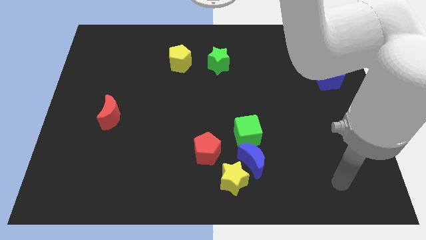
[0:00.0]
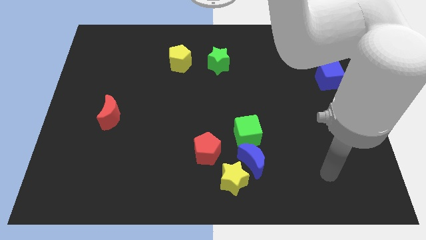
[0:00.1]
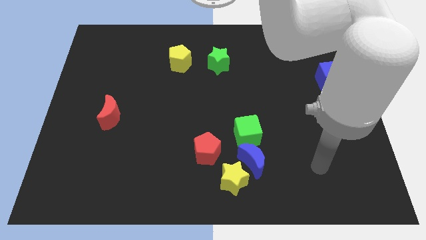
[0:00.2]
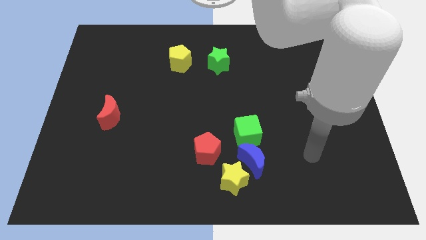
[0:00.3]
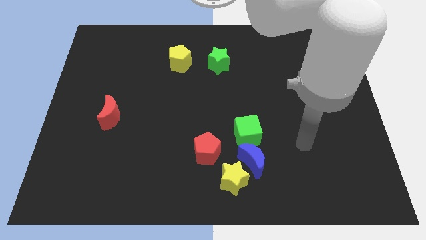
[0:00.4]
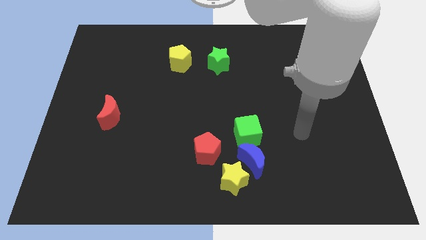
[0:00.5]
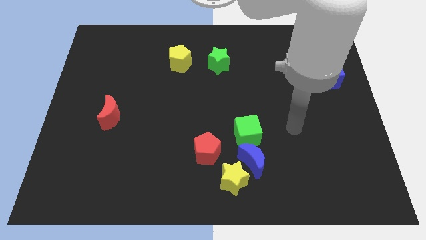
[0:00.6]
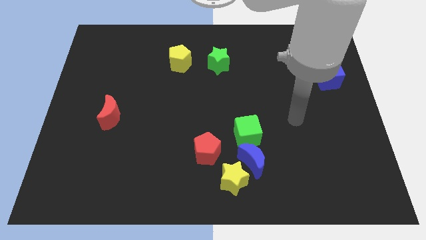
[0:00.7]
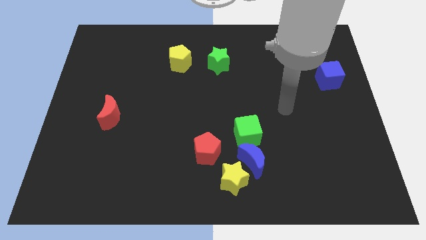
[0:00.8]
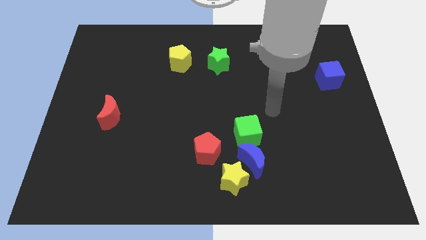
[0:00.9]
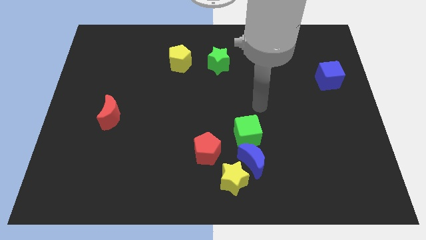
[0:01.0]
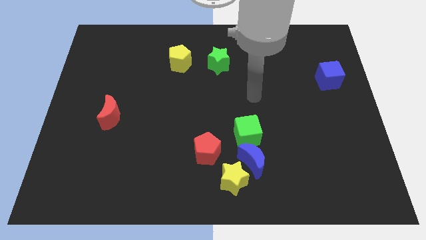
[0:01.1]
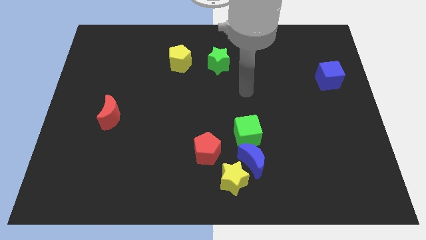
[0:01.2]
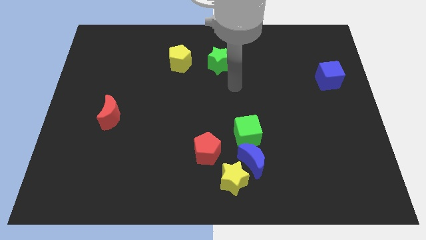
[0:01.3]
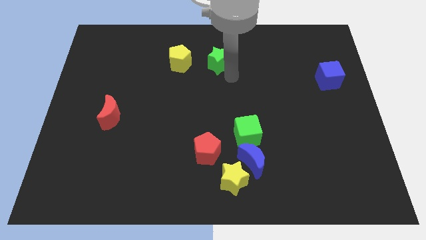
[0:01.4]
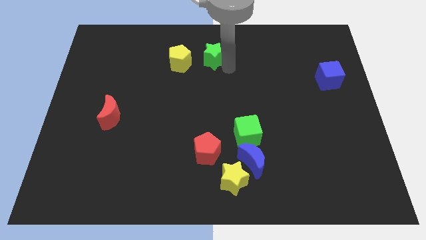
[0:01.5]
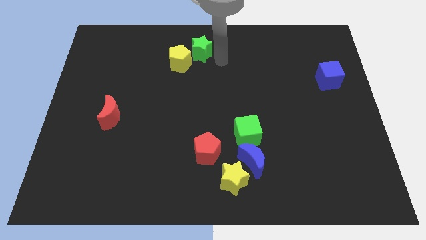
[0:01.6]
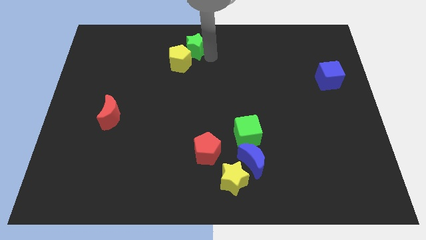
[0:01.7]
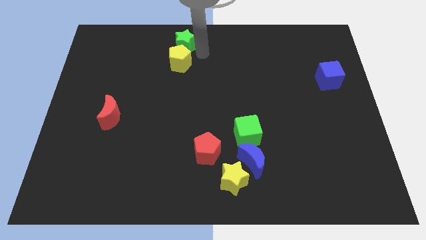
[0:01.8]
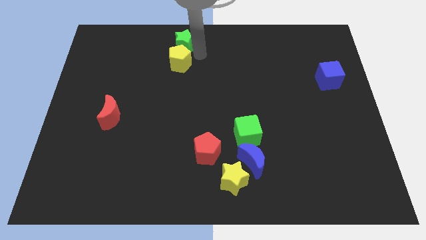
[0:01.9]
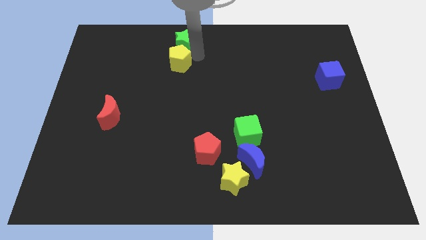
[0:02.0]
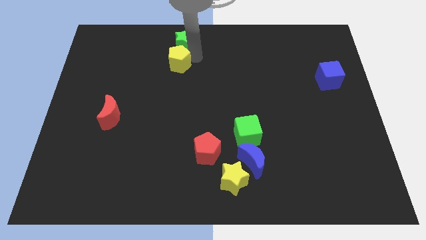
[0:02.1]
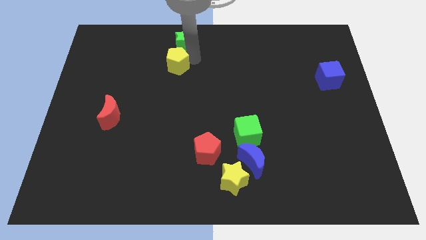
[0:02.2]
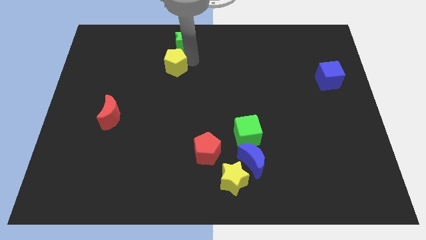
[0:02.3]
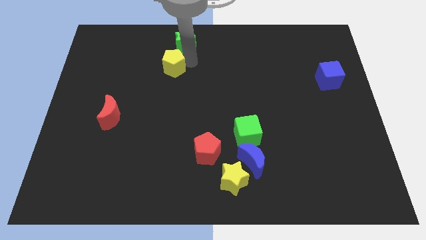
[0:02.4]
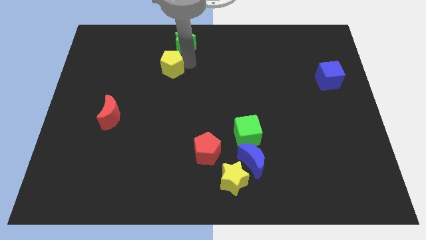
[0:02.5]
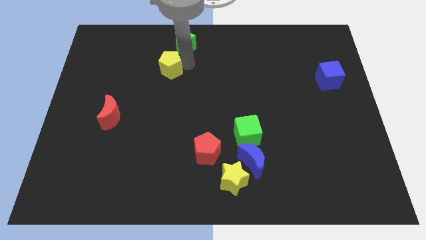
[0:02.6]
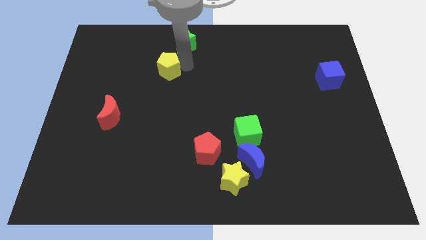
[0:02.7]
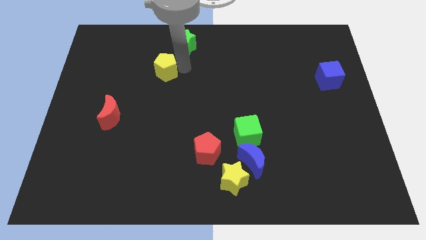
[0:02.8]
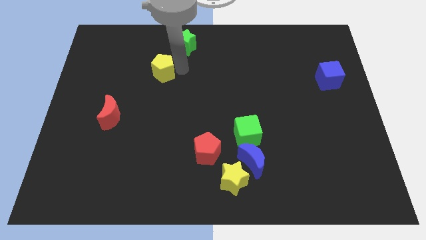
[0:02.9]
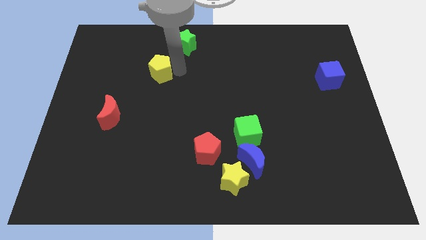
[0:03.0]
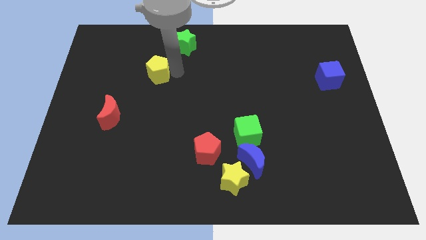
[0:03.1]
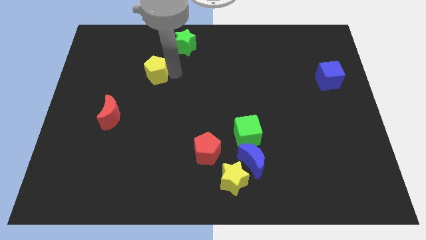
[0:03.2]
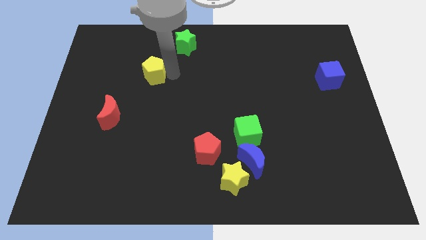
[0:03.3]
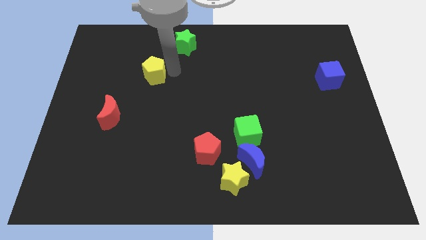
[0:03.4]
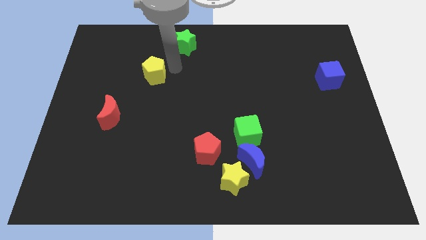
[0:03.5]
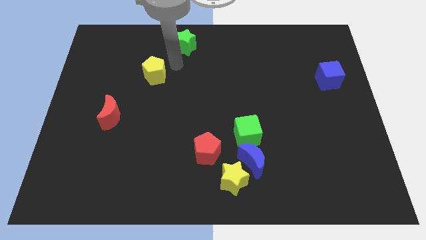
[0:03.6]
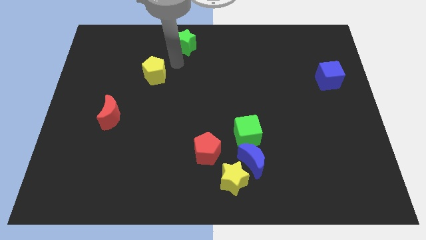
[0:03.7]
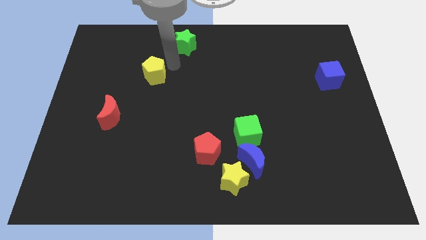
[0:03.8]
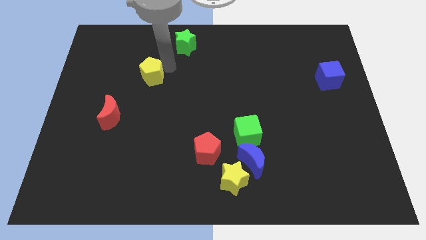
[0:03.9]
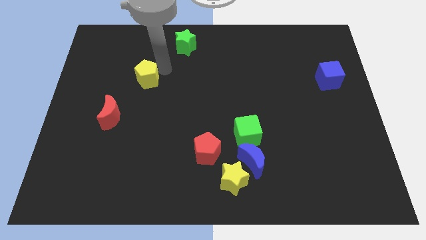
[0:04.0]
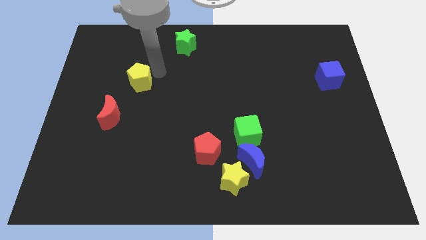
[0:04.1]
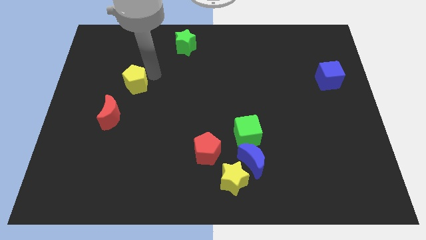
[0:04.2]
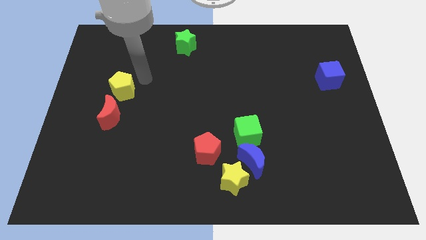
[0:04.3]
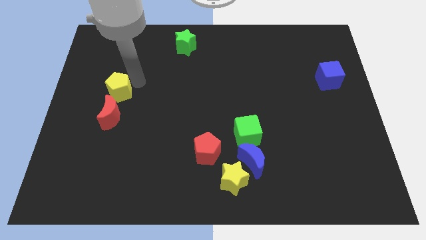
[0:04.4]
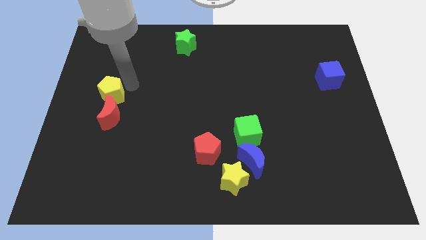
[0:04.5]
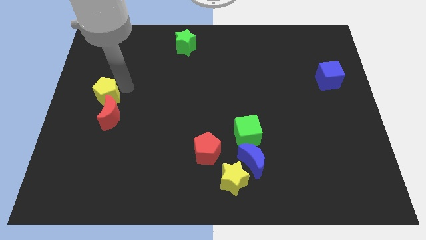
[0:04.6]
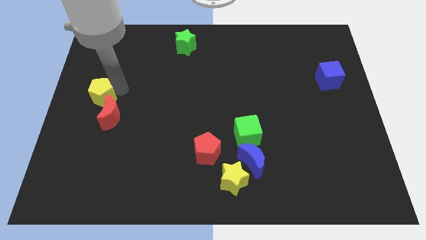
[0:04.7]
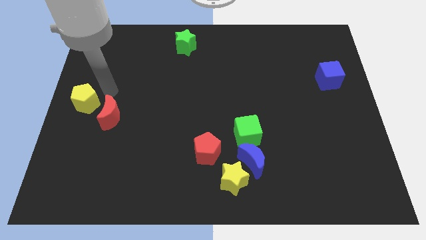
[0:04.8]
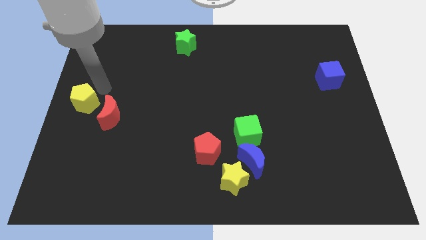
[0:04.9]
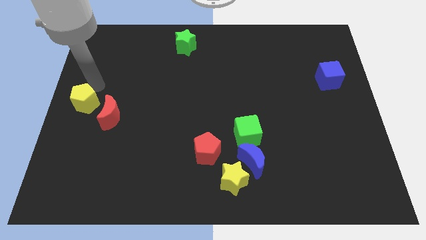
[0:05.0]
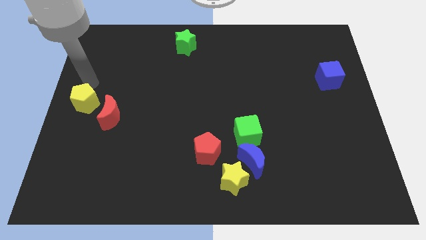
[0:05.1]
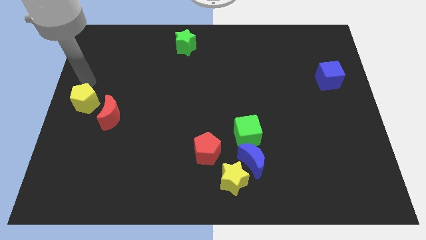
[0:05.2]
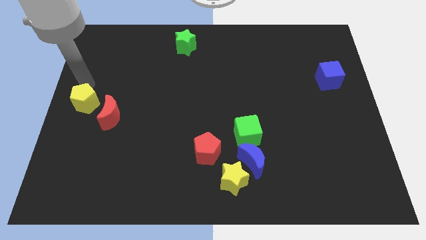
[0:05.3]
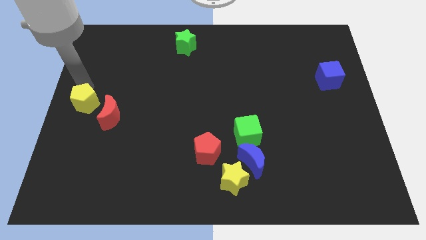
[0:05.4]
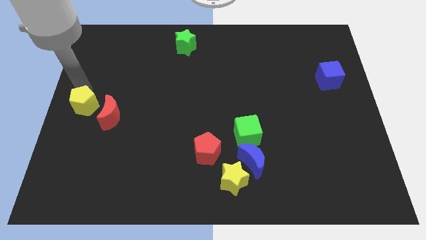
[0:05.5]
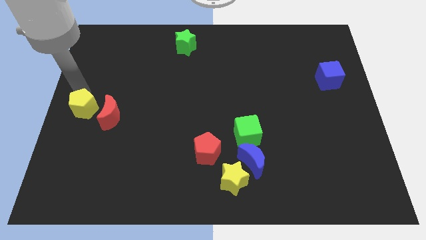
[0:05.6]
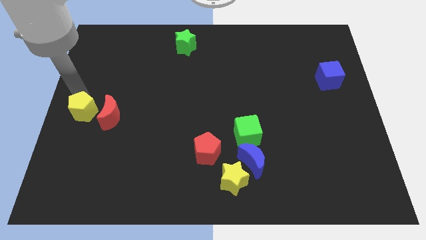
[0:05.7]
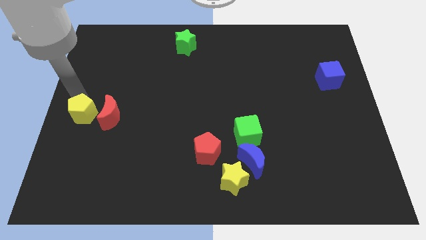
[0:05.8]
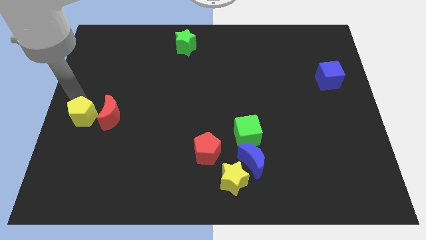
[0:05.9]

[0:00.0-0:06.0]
push the yellow pentagon to the bottom left side of the red moon

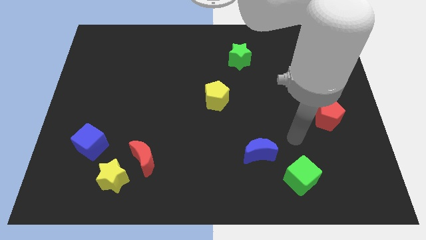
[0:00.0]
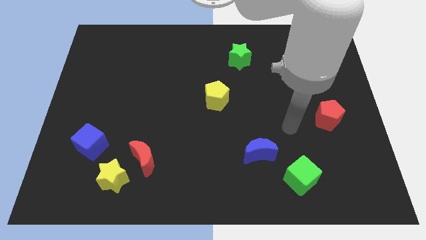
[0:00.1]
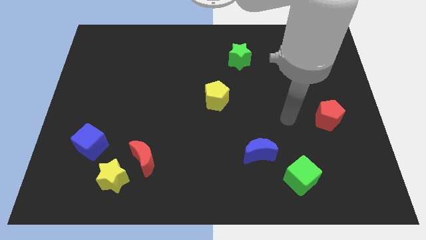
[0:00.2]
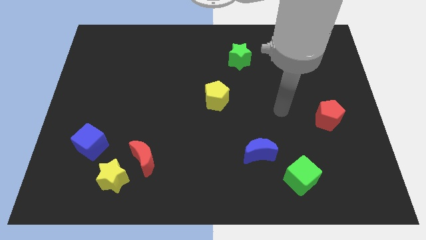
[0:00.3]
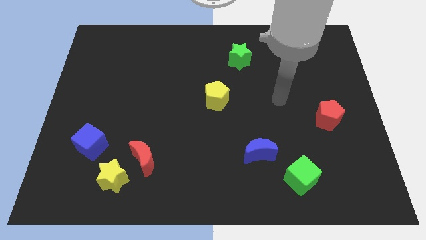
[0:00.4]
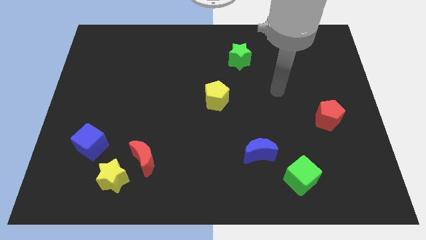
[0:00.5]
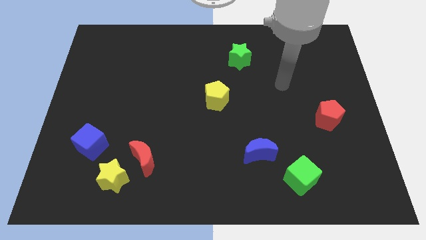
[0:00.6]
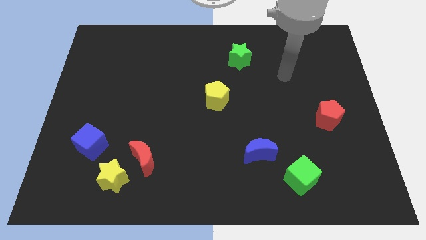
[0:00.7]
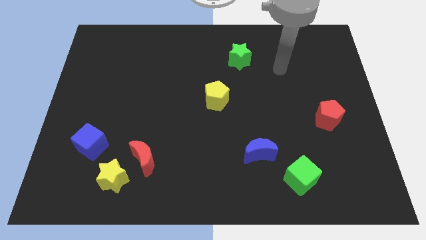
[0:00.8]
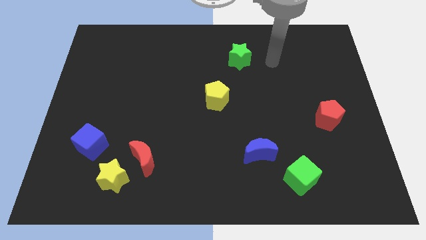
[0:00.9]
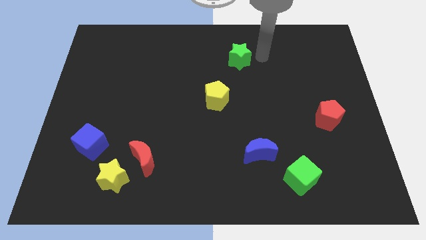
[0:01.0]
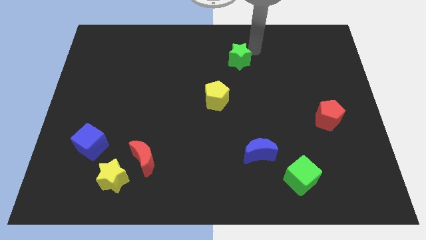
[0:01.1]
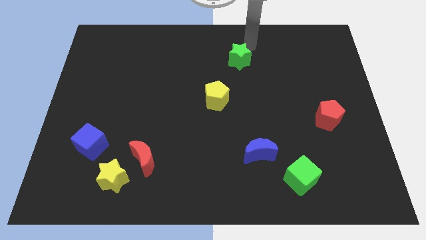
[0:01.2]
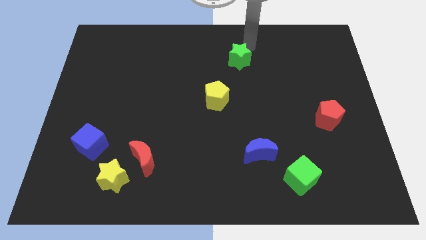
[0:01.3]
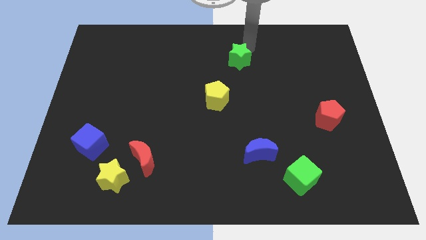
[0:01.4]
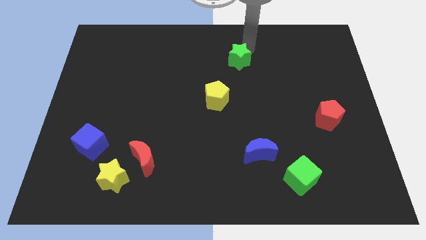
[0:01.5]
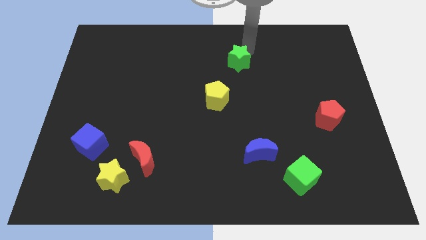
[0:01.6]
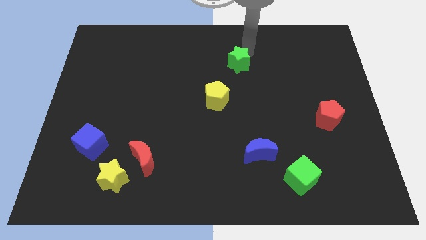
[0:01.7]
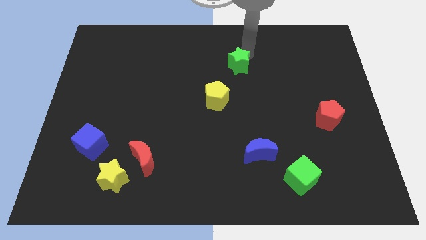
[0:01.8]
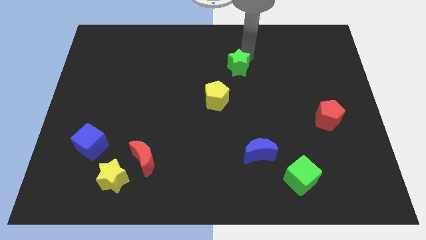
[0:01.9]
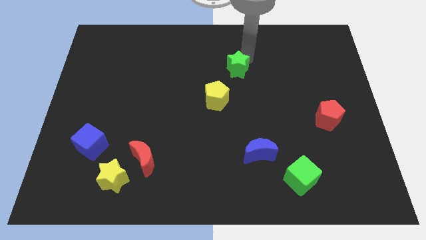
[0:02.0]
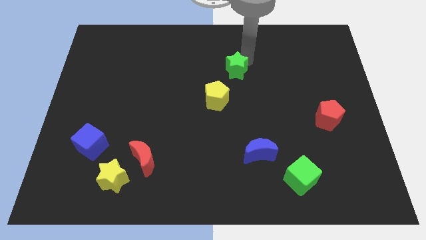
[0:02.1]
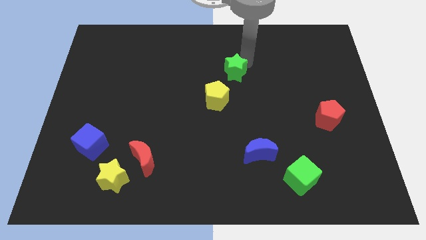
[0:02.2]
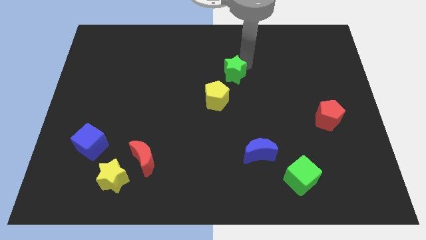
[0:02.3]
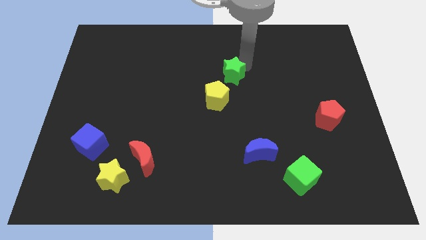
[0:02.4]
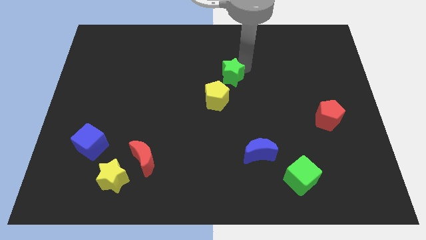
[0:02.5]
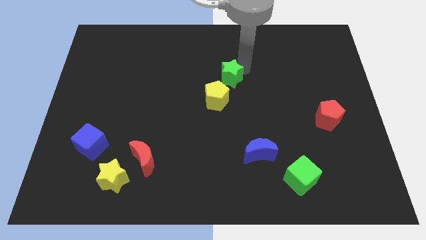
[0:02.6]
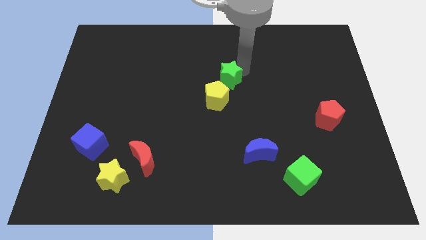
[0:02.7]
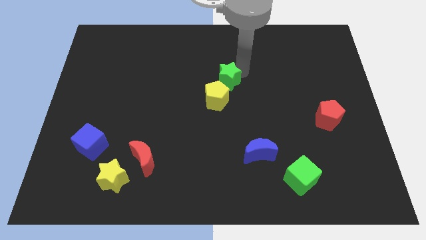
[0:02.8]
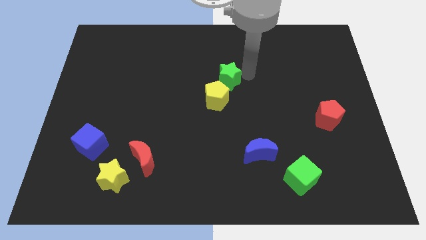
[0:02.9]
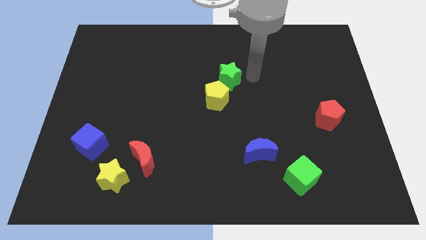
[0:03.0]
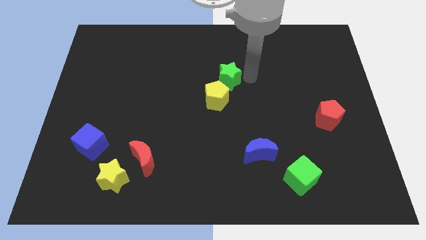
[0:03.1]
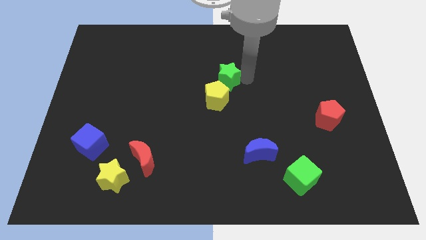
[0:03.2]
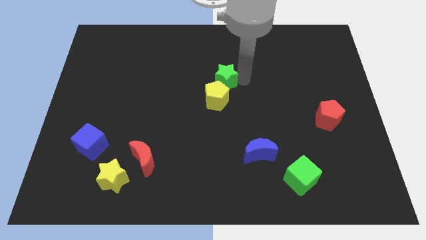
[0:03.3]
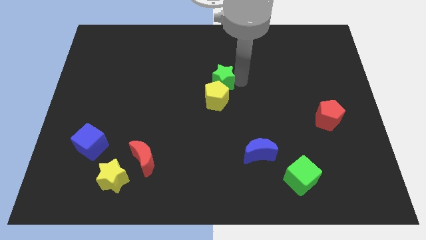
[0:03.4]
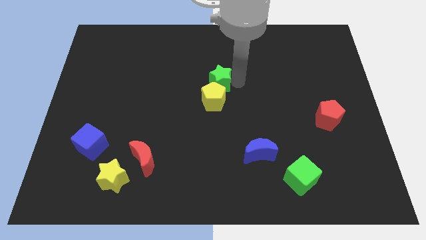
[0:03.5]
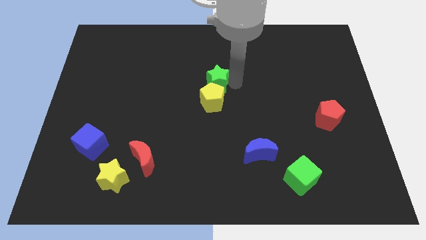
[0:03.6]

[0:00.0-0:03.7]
put the green star diagonally up and to the left of the yellow pentagon
